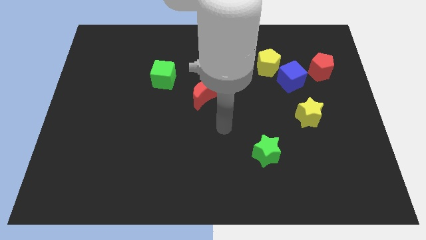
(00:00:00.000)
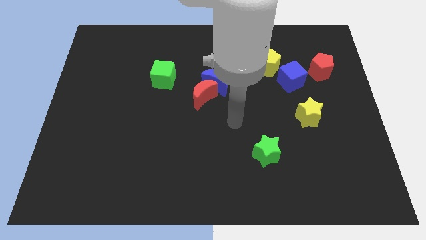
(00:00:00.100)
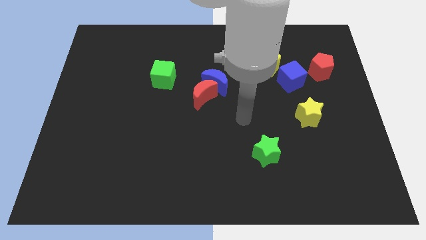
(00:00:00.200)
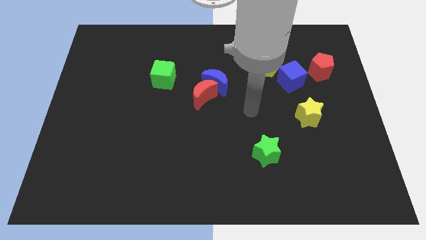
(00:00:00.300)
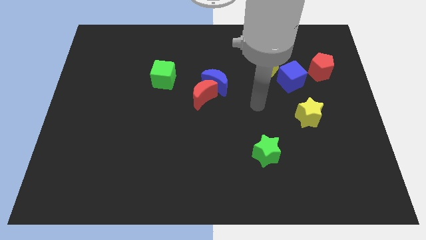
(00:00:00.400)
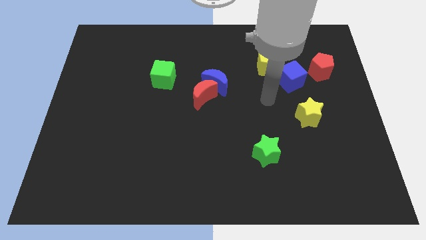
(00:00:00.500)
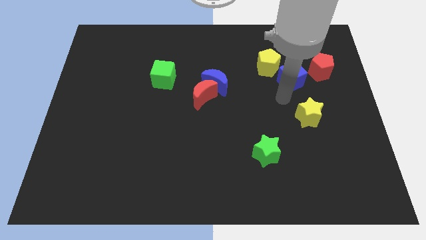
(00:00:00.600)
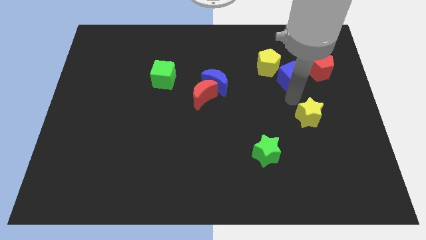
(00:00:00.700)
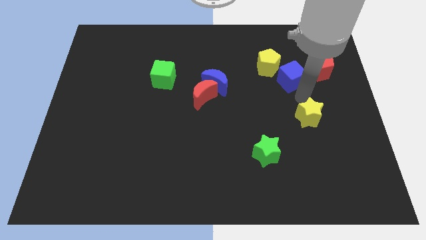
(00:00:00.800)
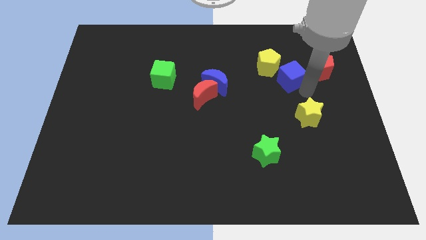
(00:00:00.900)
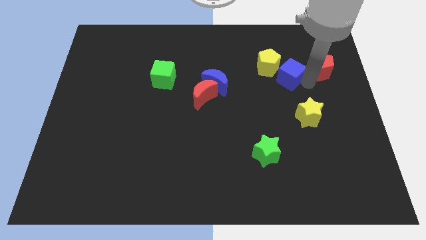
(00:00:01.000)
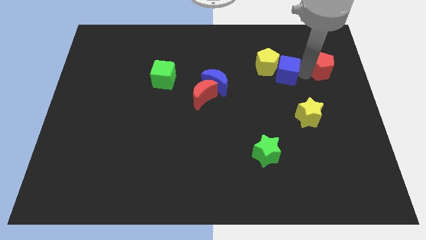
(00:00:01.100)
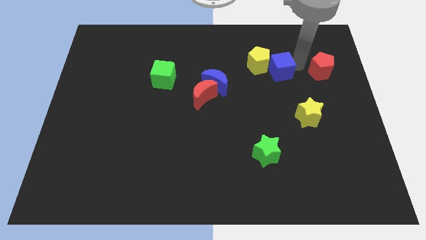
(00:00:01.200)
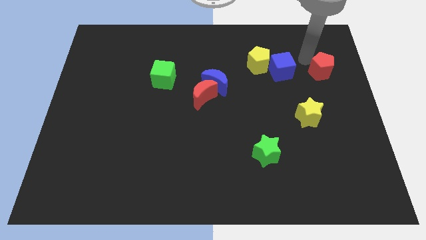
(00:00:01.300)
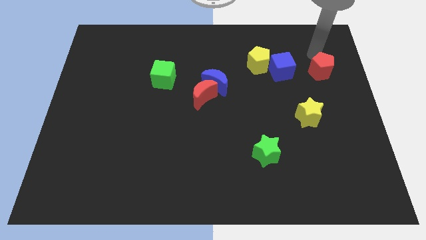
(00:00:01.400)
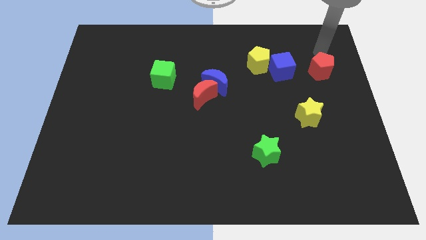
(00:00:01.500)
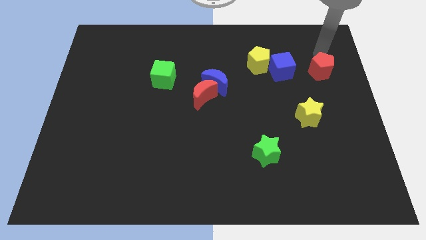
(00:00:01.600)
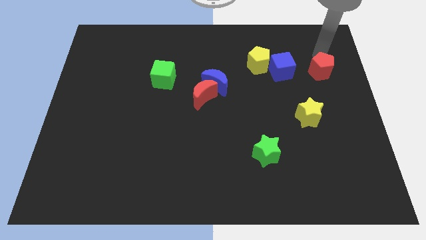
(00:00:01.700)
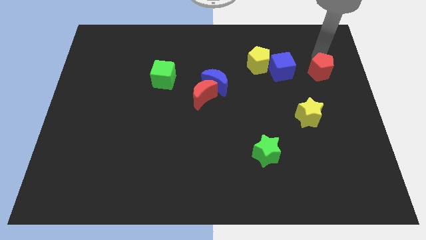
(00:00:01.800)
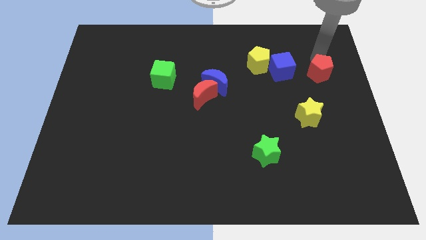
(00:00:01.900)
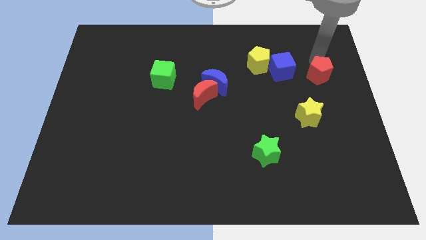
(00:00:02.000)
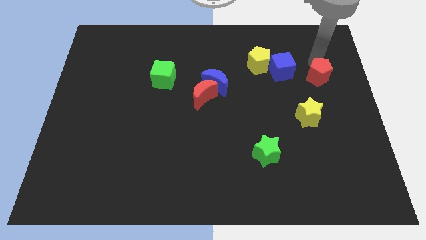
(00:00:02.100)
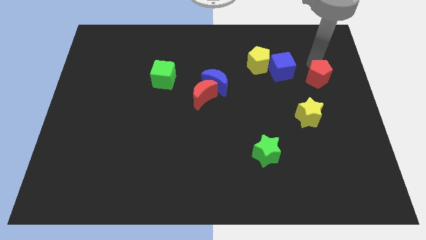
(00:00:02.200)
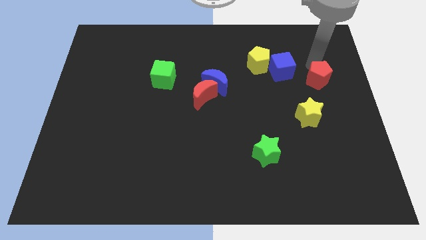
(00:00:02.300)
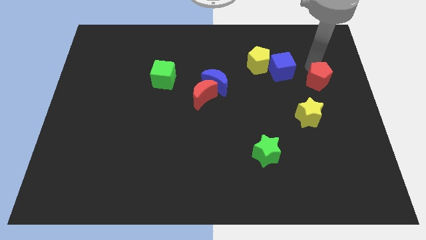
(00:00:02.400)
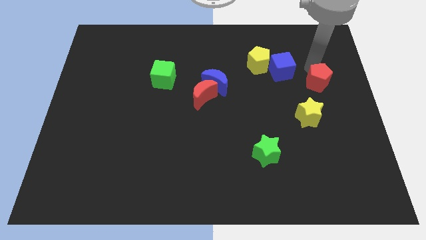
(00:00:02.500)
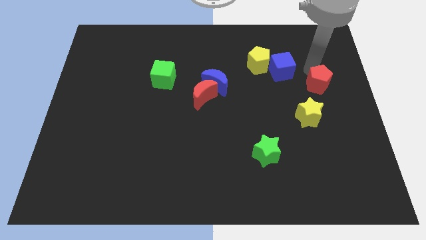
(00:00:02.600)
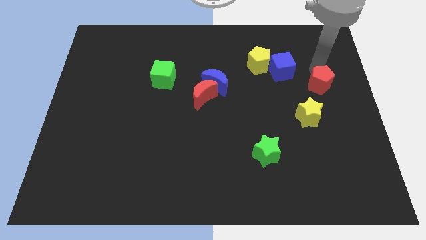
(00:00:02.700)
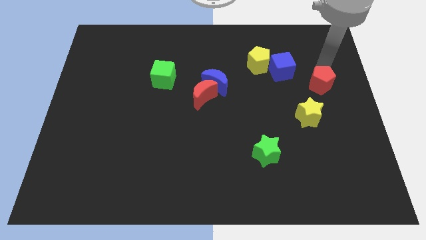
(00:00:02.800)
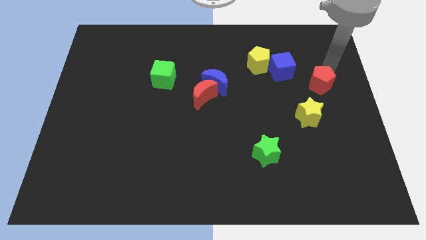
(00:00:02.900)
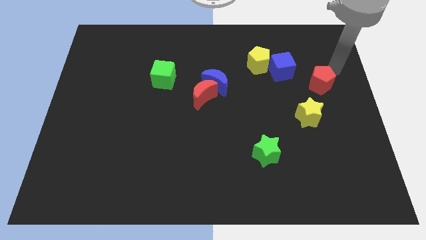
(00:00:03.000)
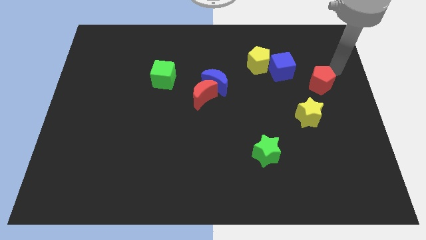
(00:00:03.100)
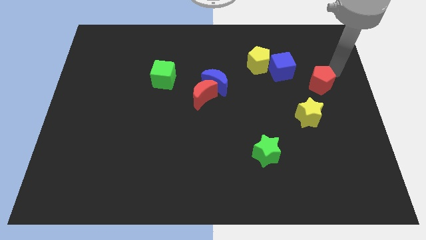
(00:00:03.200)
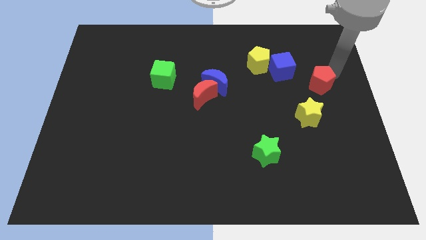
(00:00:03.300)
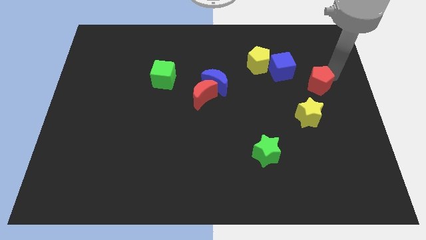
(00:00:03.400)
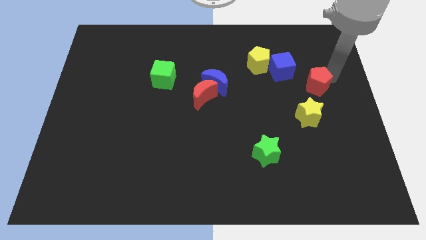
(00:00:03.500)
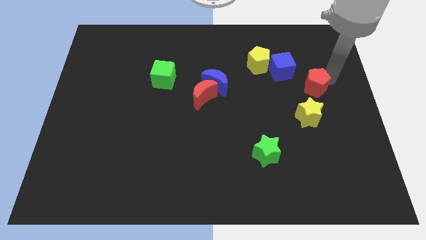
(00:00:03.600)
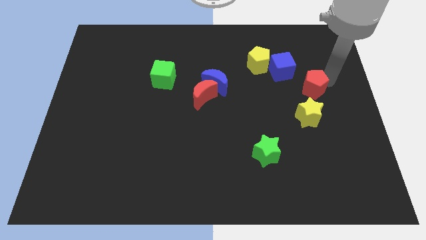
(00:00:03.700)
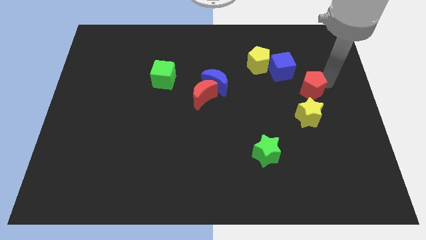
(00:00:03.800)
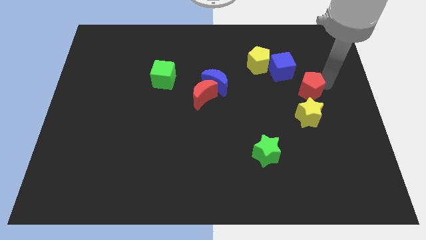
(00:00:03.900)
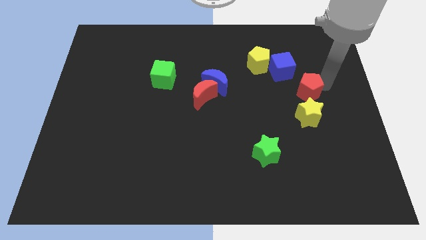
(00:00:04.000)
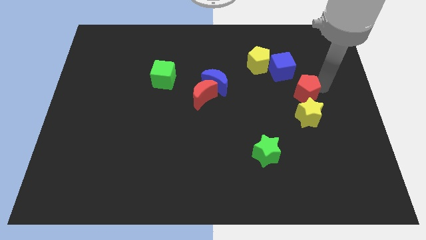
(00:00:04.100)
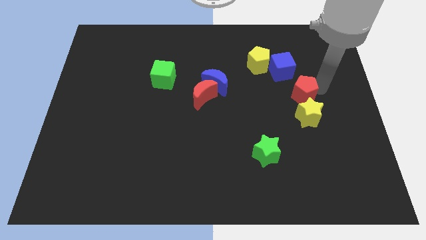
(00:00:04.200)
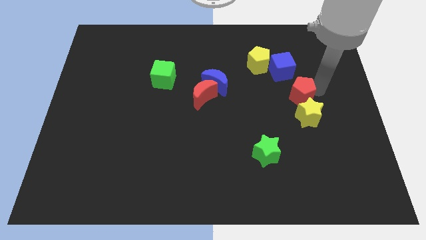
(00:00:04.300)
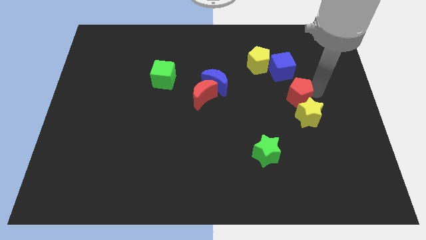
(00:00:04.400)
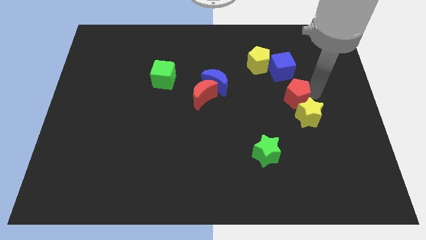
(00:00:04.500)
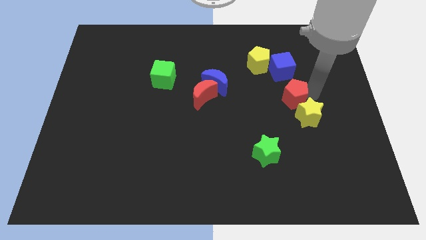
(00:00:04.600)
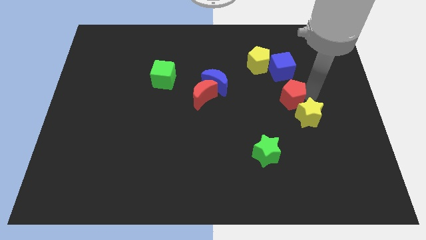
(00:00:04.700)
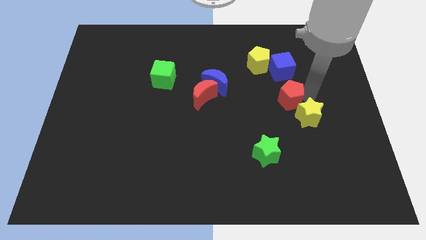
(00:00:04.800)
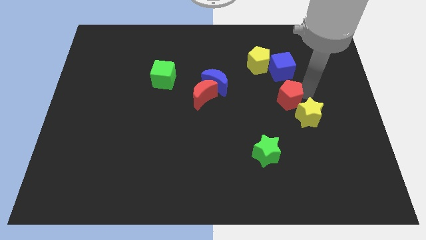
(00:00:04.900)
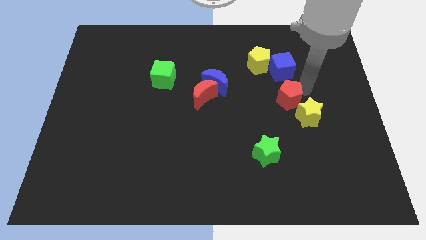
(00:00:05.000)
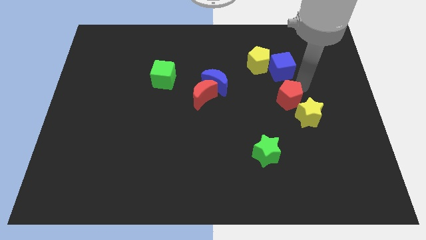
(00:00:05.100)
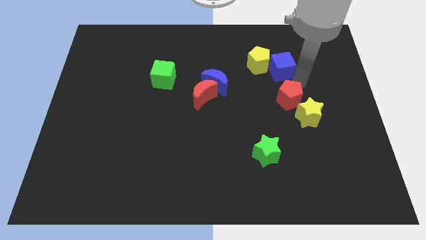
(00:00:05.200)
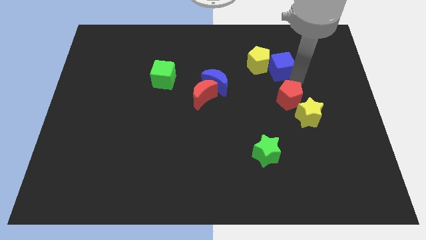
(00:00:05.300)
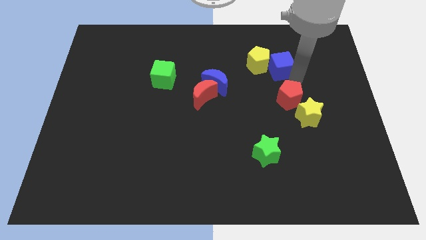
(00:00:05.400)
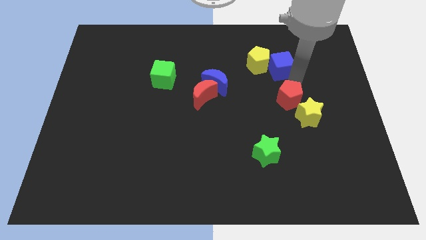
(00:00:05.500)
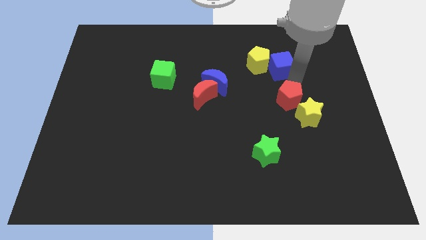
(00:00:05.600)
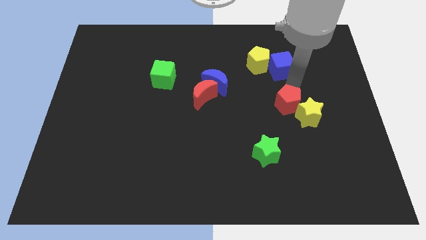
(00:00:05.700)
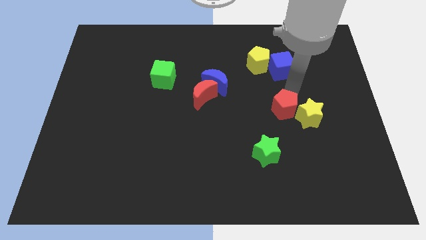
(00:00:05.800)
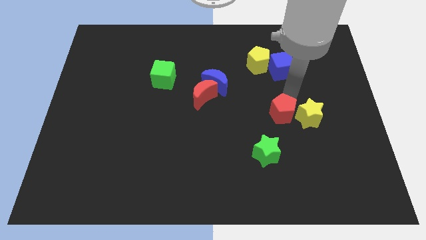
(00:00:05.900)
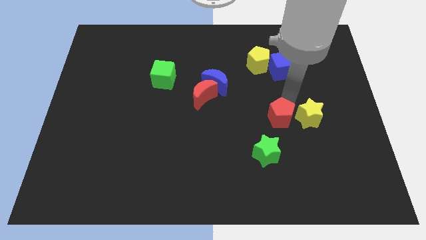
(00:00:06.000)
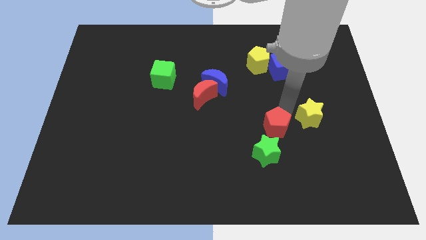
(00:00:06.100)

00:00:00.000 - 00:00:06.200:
move the red pentagon down and then to the left

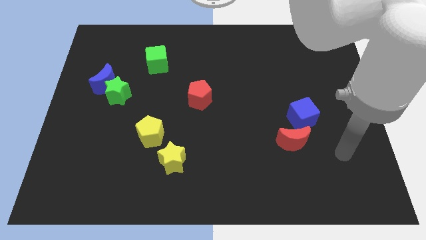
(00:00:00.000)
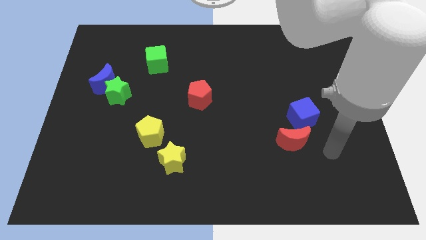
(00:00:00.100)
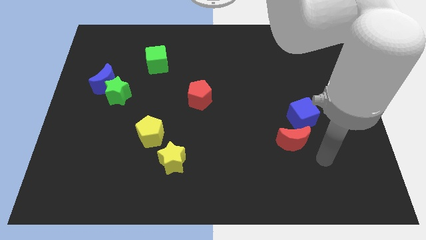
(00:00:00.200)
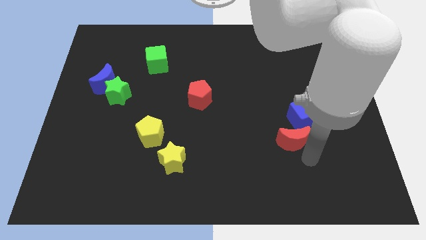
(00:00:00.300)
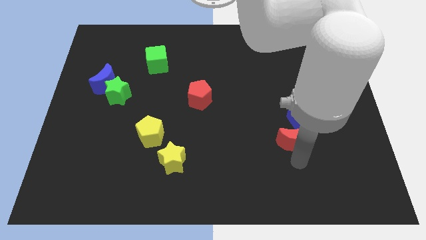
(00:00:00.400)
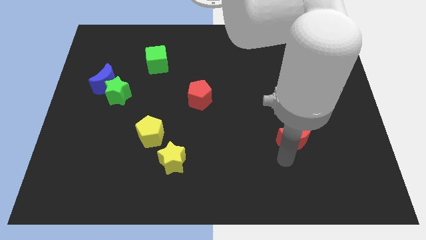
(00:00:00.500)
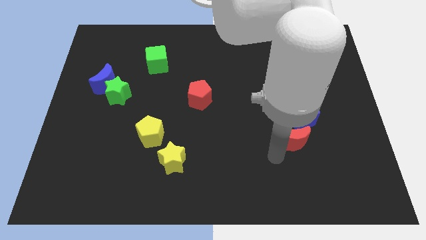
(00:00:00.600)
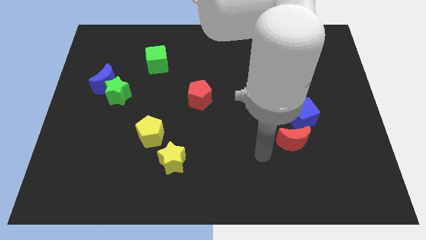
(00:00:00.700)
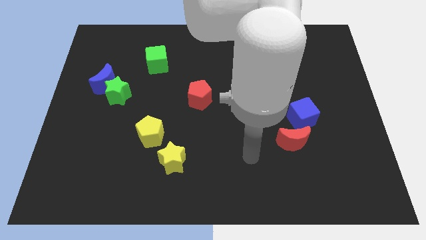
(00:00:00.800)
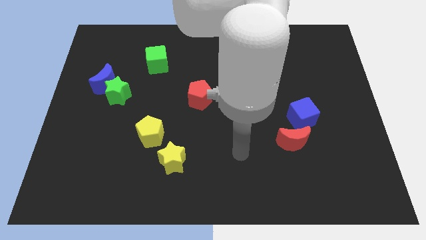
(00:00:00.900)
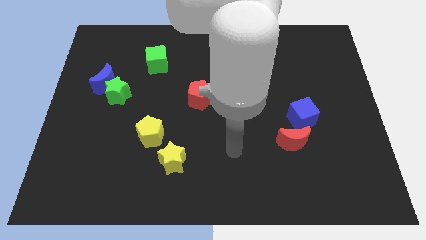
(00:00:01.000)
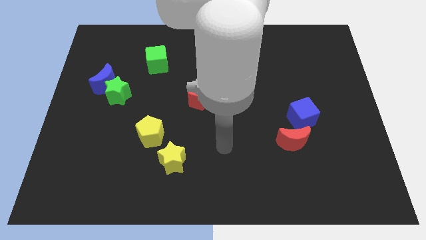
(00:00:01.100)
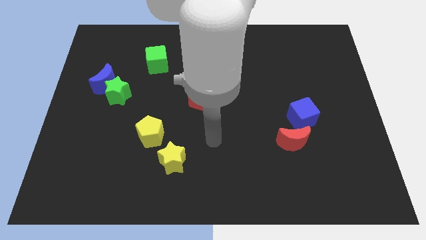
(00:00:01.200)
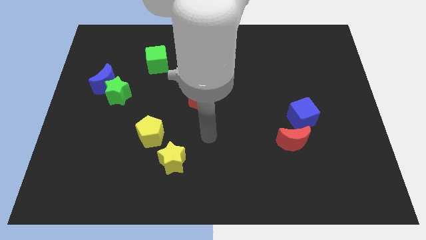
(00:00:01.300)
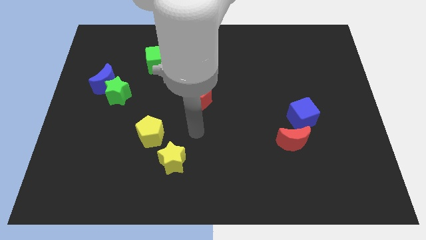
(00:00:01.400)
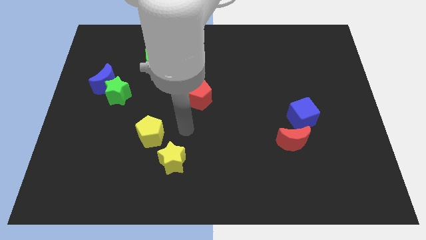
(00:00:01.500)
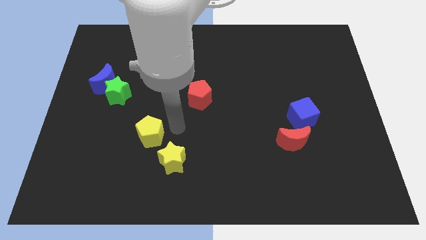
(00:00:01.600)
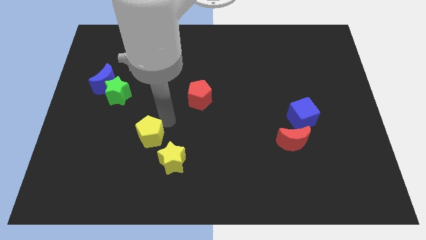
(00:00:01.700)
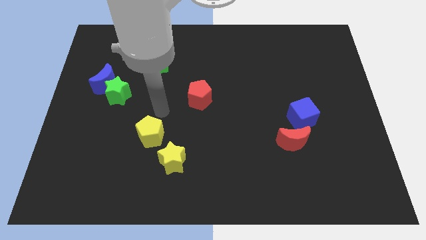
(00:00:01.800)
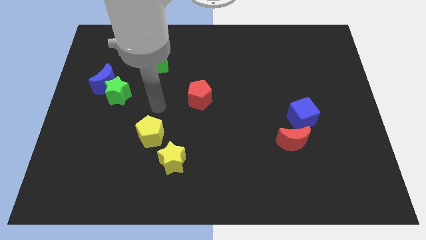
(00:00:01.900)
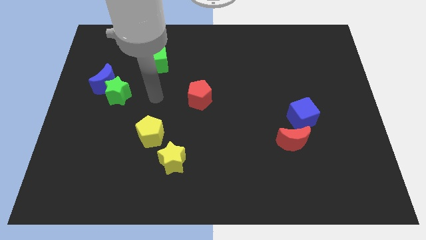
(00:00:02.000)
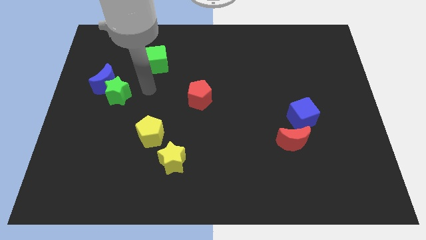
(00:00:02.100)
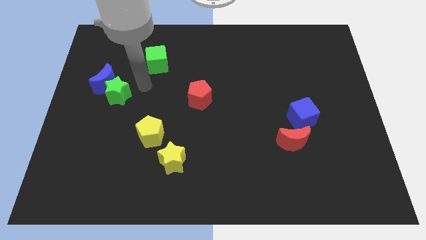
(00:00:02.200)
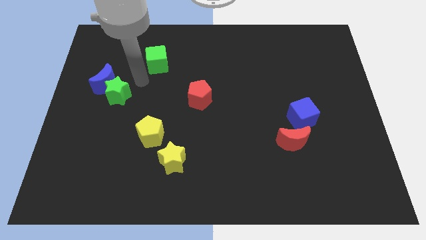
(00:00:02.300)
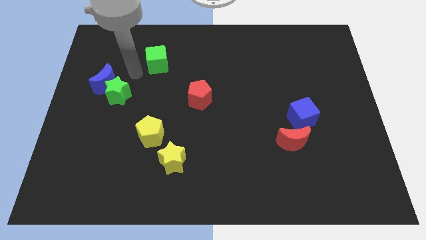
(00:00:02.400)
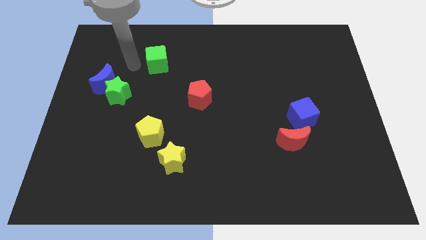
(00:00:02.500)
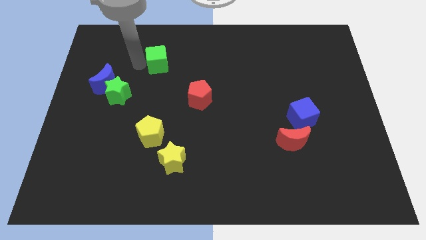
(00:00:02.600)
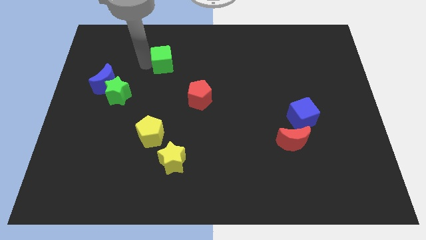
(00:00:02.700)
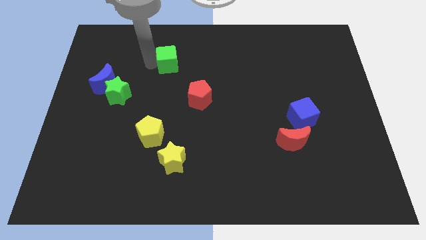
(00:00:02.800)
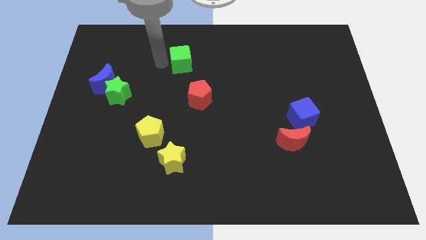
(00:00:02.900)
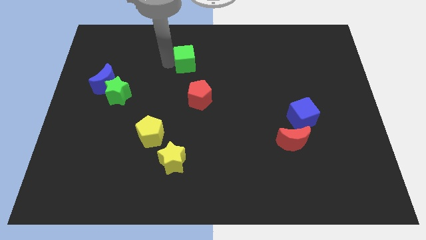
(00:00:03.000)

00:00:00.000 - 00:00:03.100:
slightly push the green cube to the right
